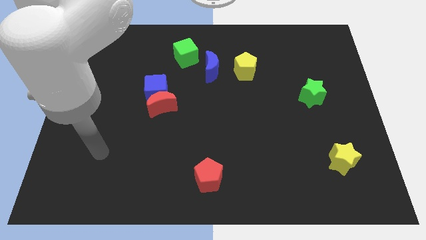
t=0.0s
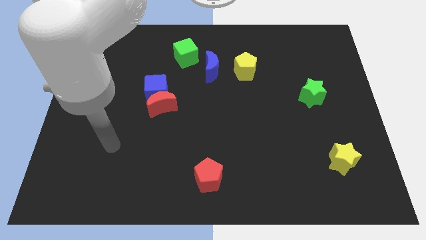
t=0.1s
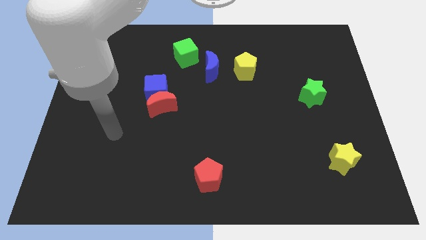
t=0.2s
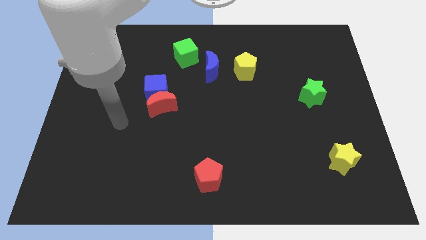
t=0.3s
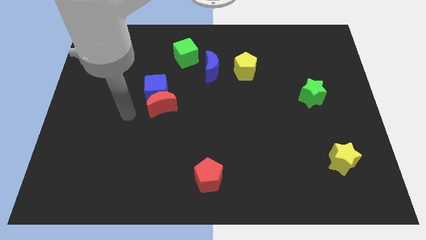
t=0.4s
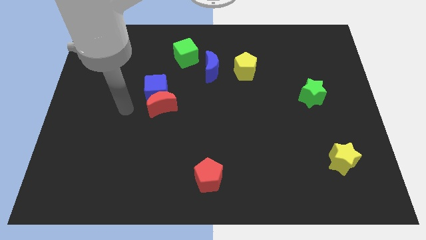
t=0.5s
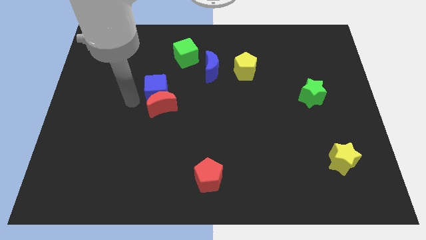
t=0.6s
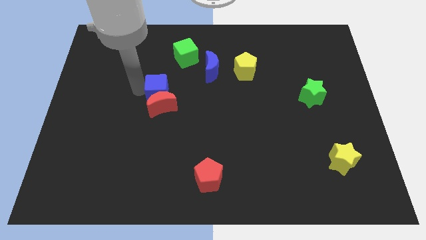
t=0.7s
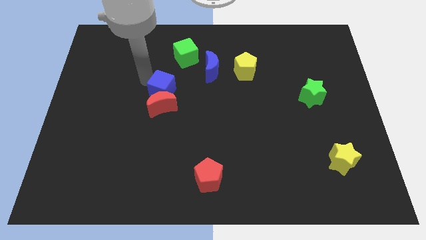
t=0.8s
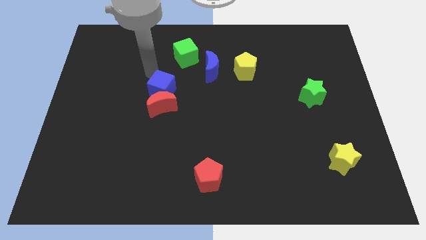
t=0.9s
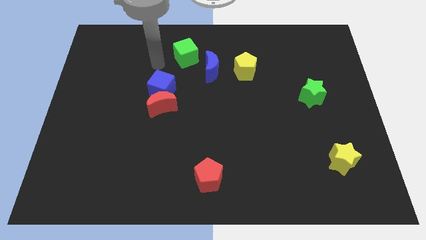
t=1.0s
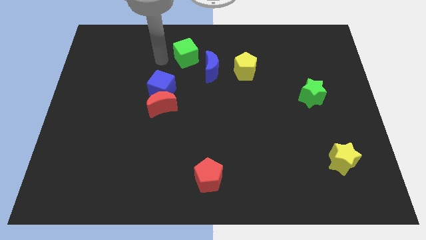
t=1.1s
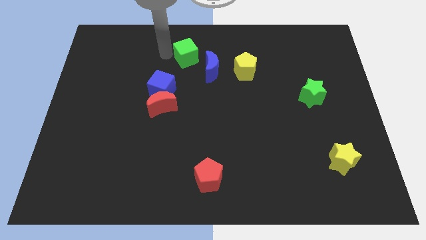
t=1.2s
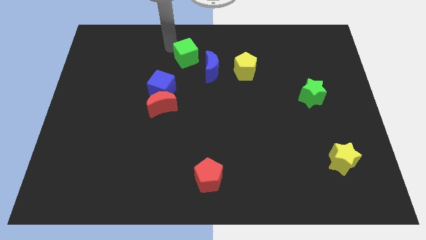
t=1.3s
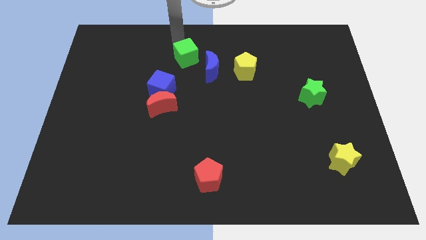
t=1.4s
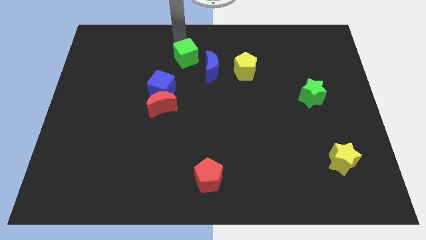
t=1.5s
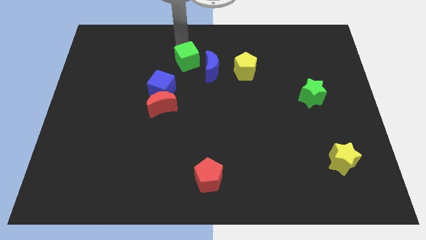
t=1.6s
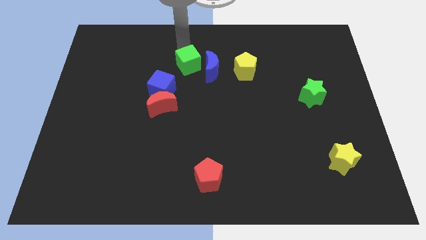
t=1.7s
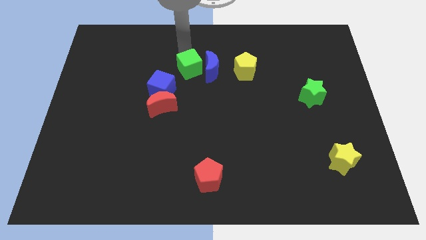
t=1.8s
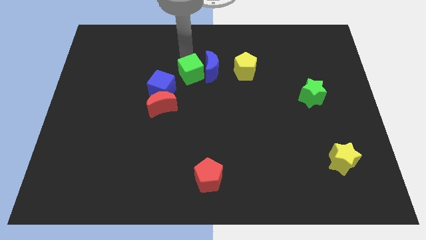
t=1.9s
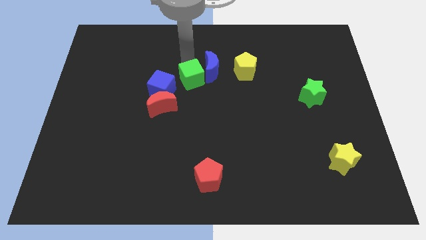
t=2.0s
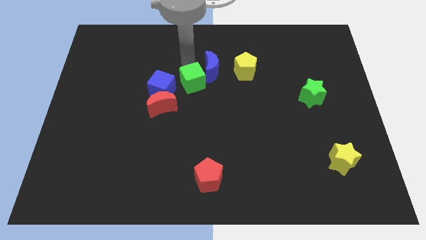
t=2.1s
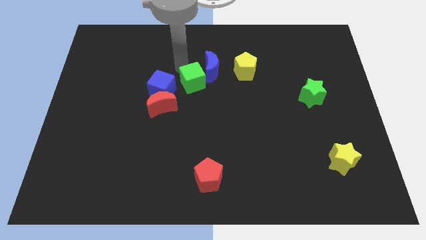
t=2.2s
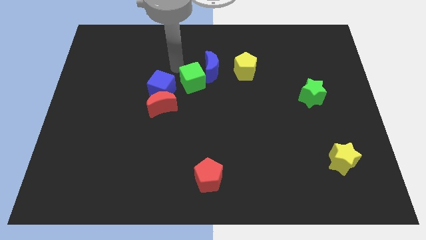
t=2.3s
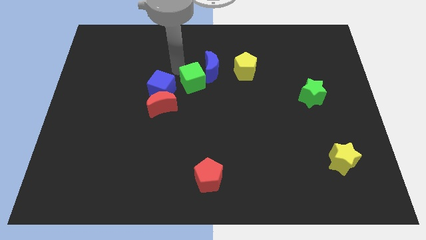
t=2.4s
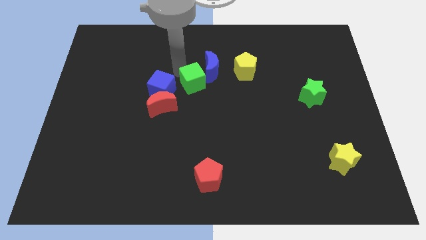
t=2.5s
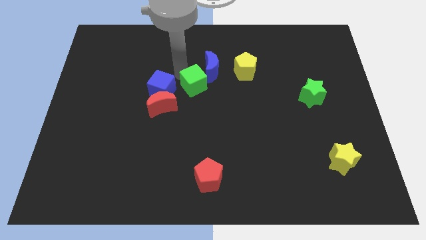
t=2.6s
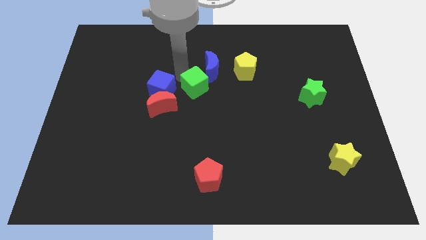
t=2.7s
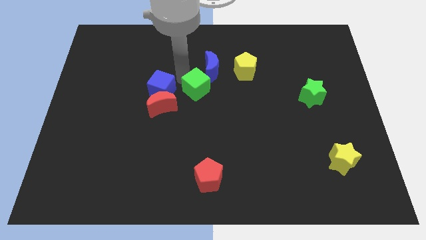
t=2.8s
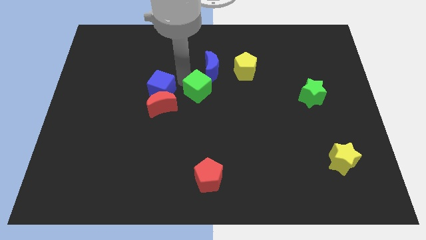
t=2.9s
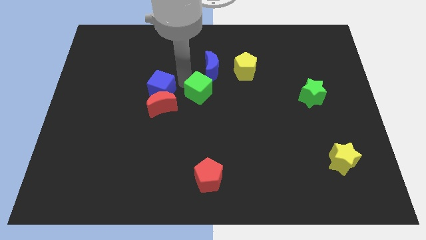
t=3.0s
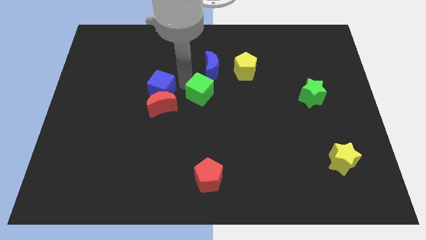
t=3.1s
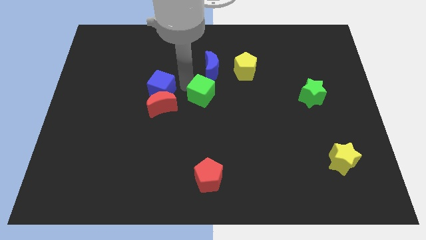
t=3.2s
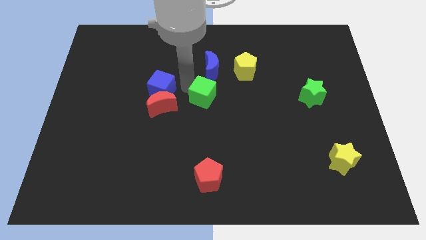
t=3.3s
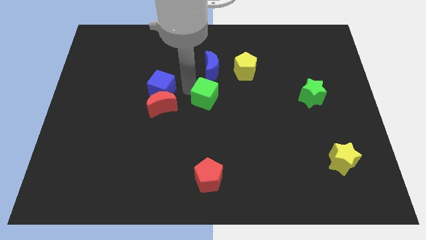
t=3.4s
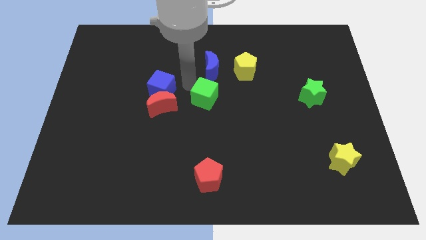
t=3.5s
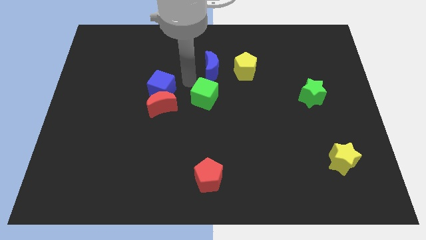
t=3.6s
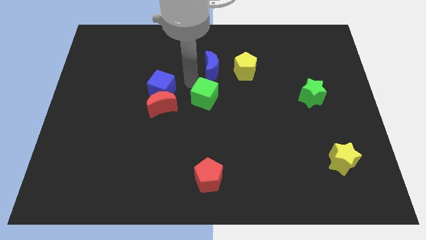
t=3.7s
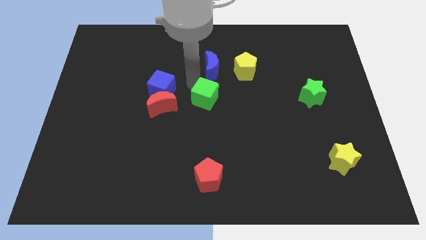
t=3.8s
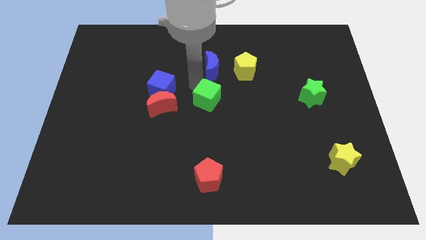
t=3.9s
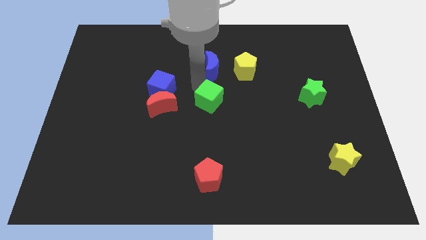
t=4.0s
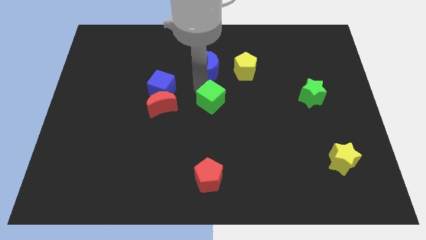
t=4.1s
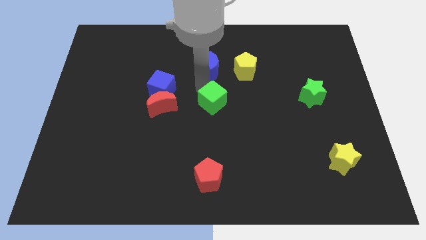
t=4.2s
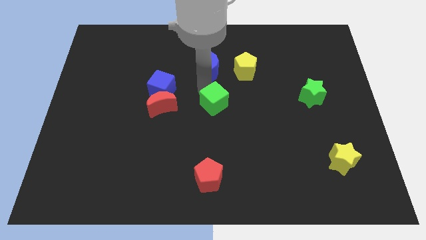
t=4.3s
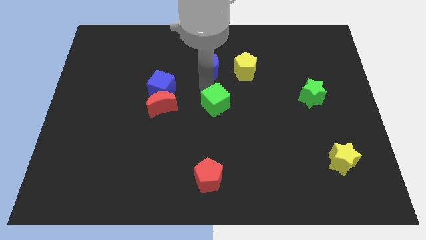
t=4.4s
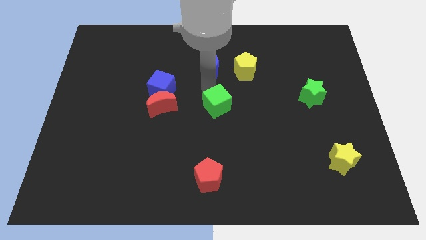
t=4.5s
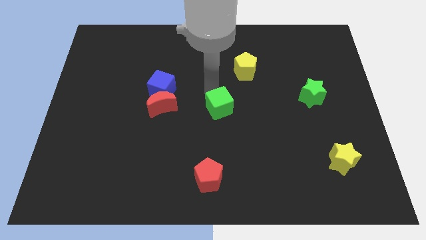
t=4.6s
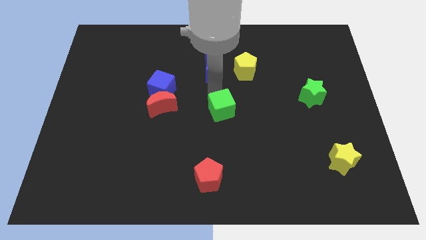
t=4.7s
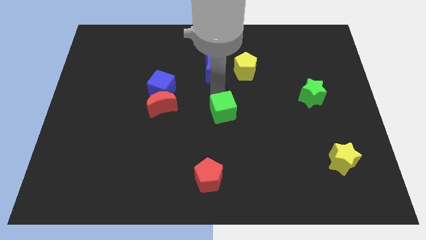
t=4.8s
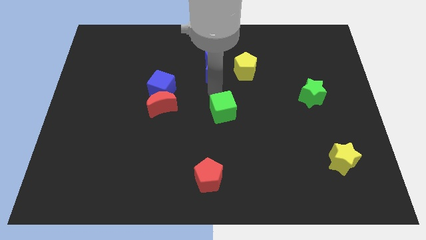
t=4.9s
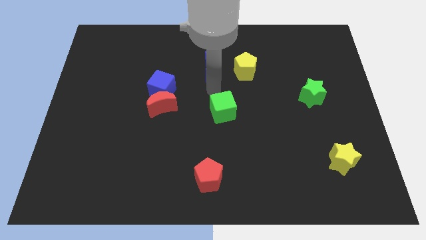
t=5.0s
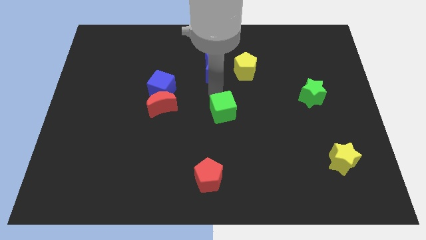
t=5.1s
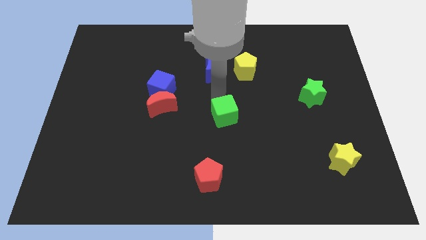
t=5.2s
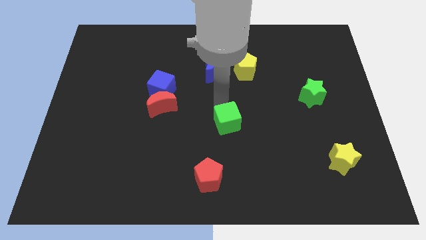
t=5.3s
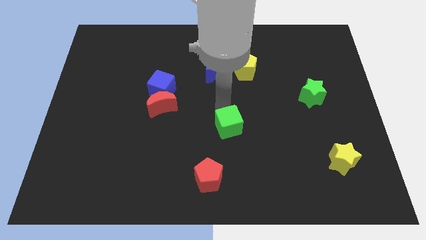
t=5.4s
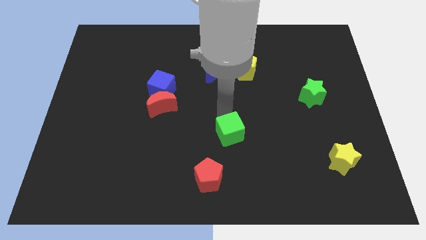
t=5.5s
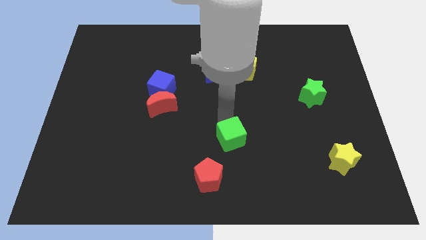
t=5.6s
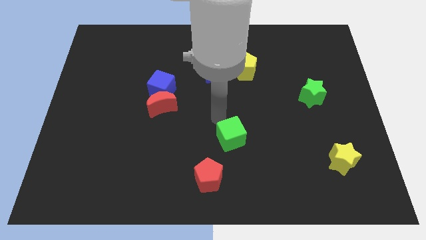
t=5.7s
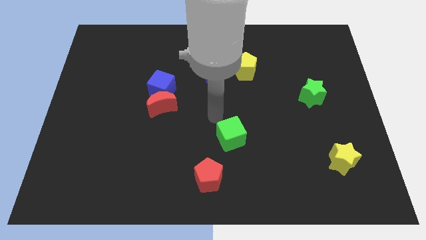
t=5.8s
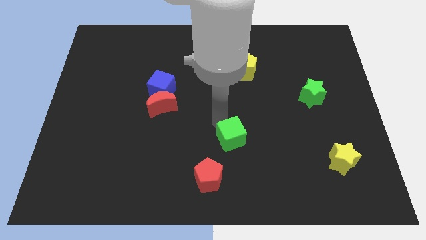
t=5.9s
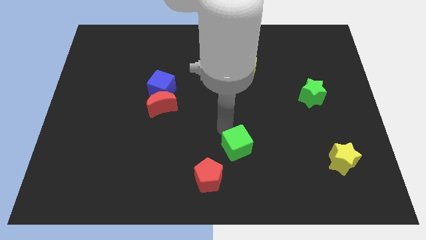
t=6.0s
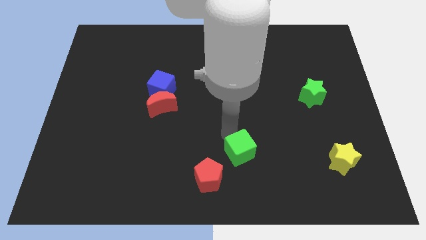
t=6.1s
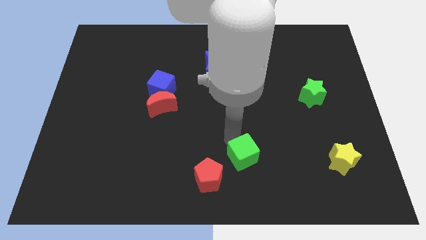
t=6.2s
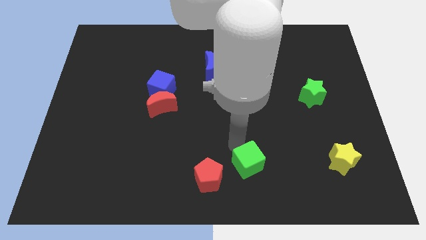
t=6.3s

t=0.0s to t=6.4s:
push the green cube just right of the red pentagon

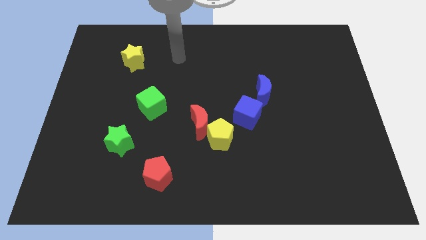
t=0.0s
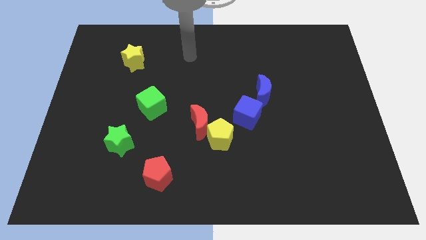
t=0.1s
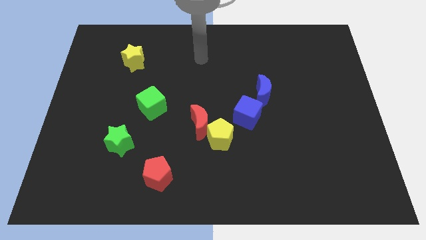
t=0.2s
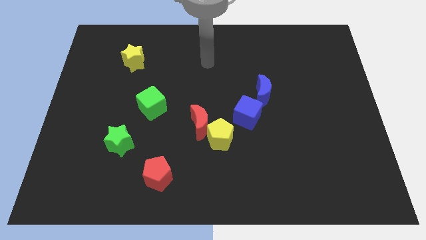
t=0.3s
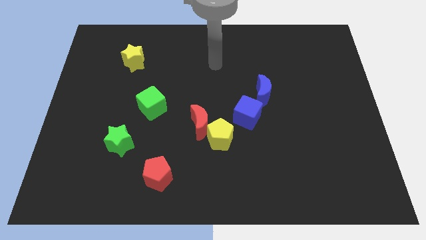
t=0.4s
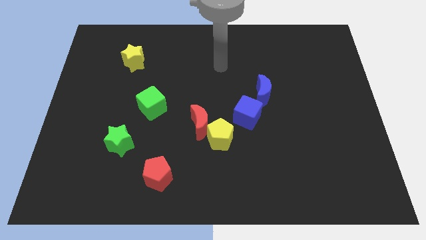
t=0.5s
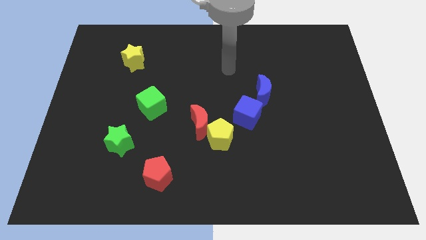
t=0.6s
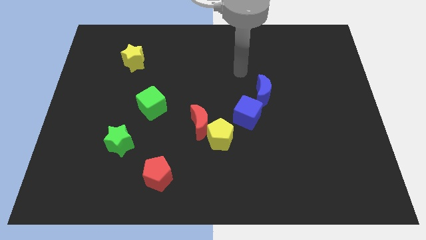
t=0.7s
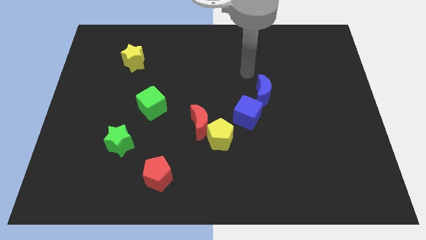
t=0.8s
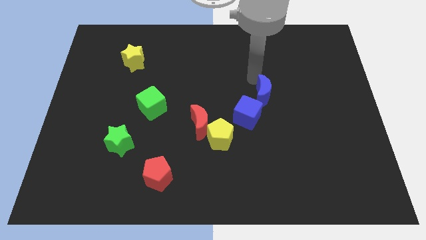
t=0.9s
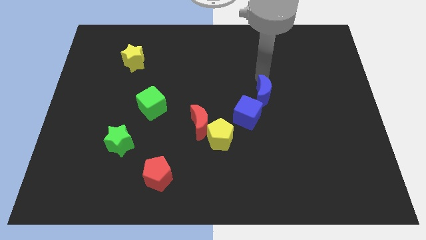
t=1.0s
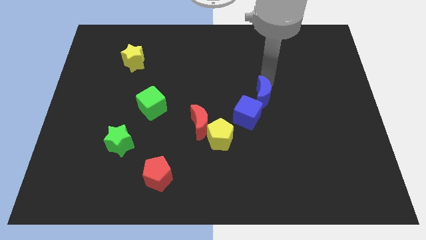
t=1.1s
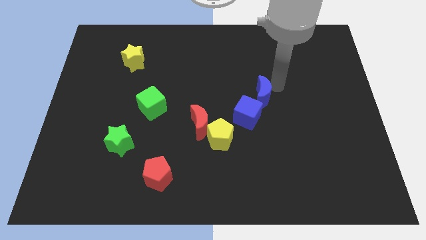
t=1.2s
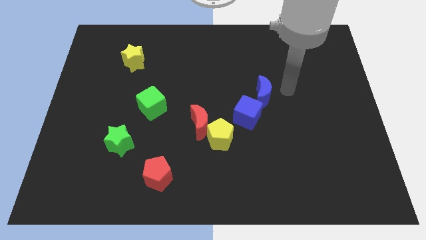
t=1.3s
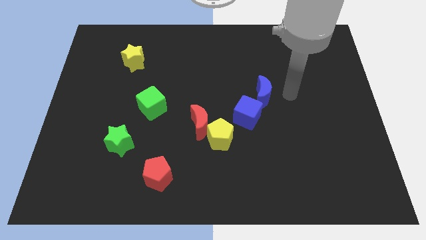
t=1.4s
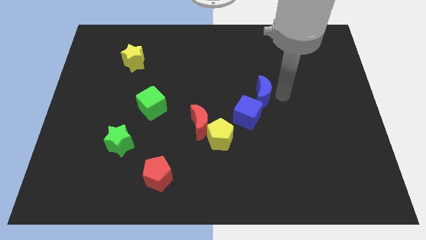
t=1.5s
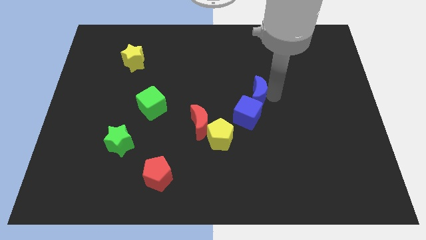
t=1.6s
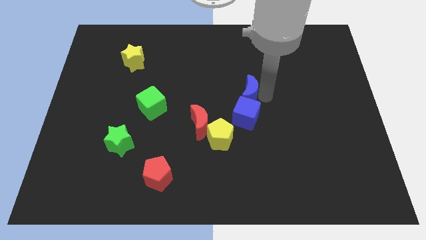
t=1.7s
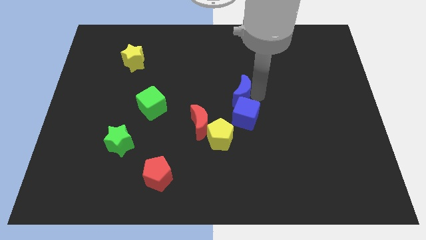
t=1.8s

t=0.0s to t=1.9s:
push the blue moon to the top left of the blue cube
